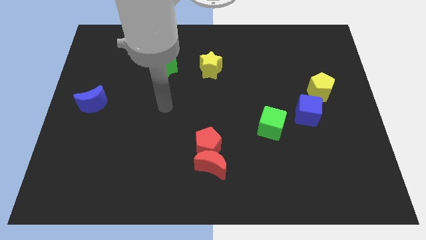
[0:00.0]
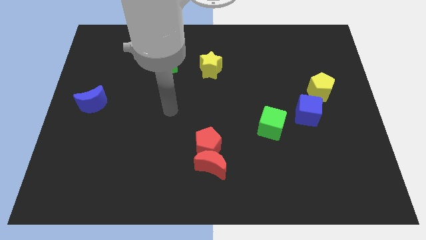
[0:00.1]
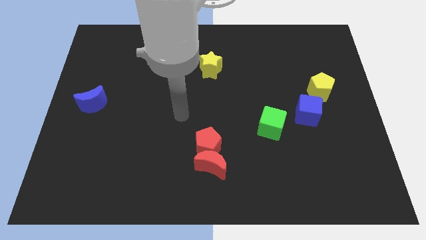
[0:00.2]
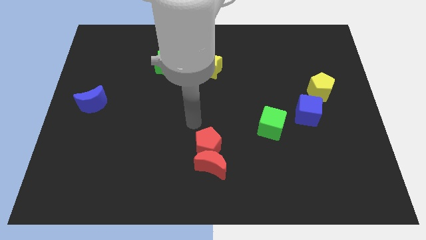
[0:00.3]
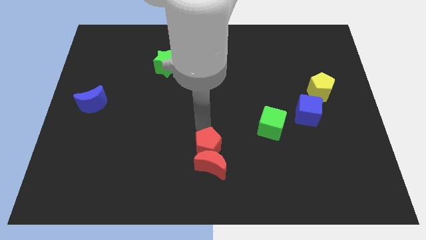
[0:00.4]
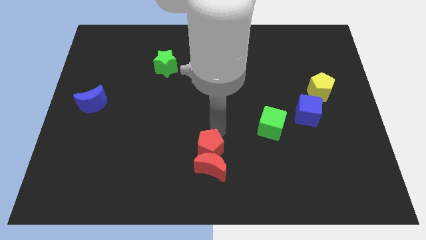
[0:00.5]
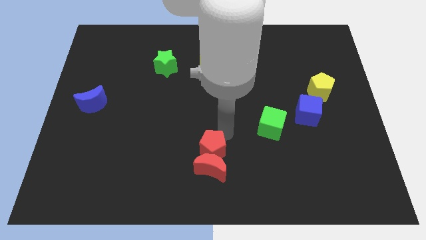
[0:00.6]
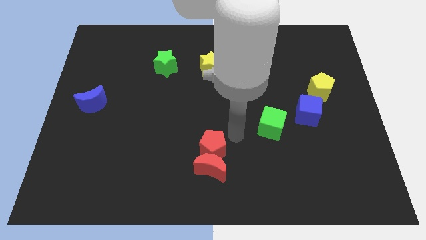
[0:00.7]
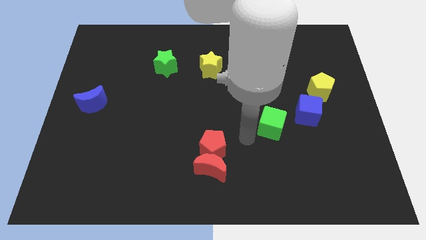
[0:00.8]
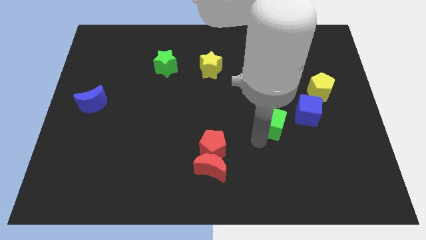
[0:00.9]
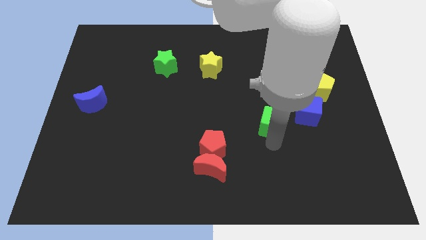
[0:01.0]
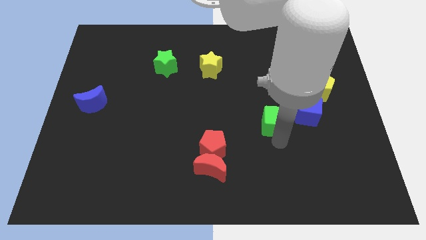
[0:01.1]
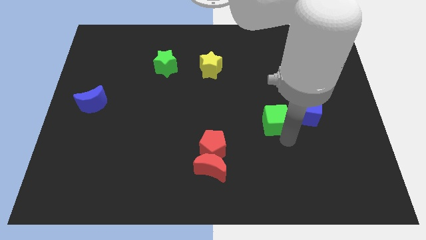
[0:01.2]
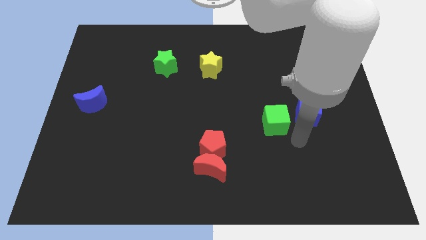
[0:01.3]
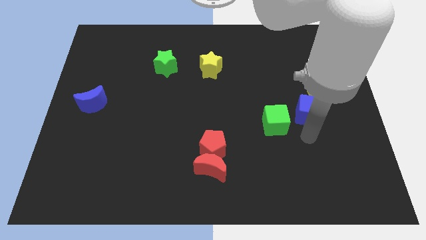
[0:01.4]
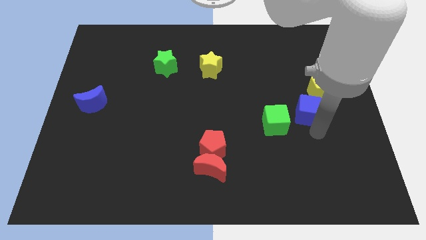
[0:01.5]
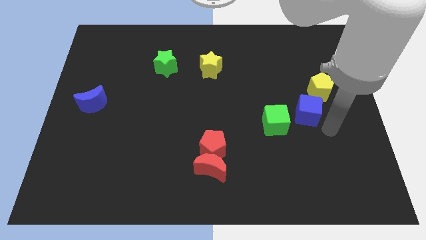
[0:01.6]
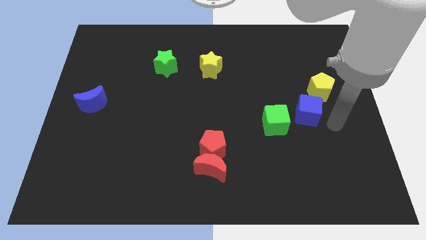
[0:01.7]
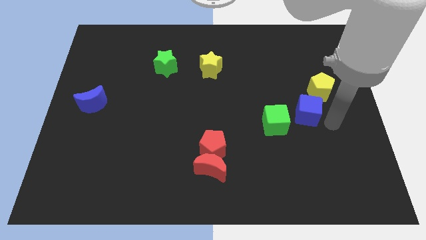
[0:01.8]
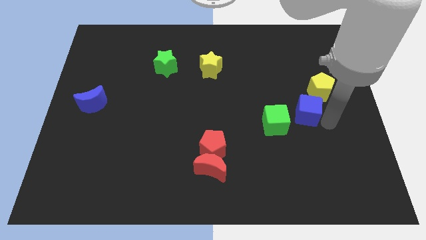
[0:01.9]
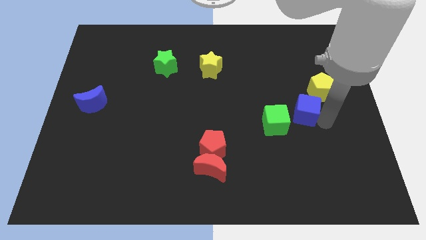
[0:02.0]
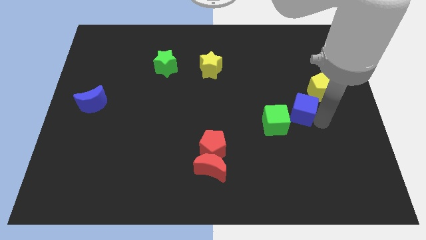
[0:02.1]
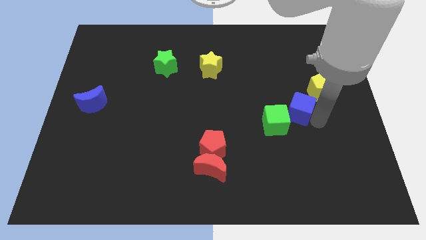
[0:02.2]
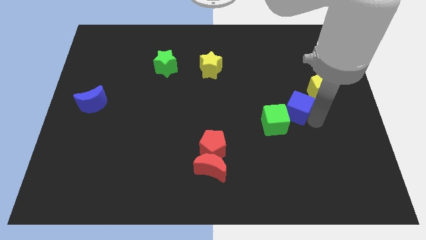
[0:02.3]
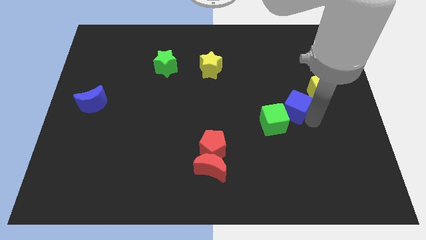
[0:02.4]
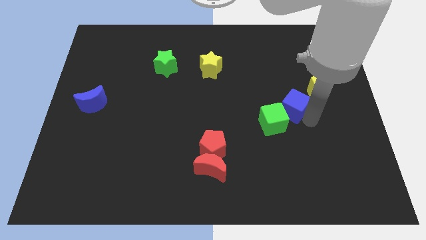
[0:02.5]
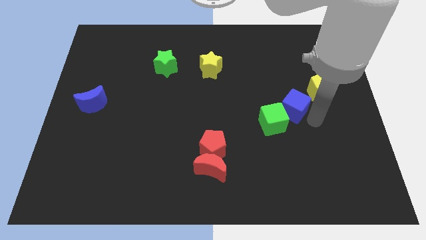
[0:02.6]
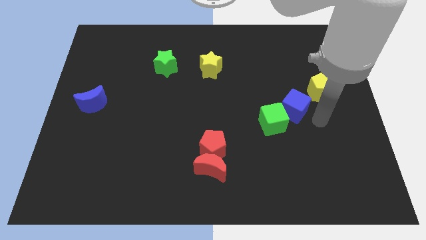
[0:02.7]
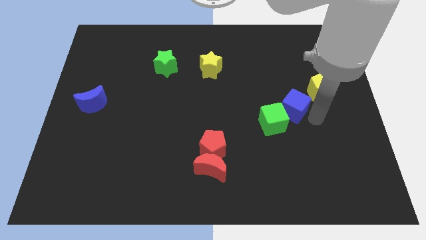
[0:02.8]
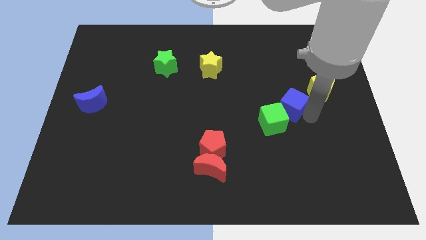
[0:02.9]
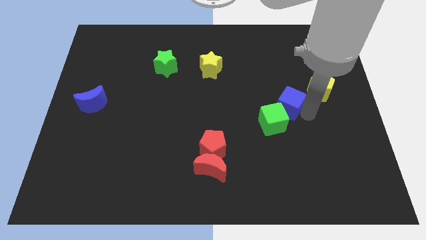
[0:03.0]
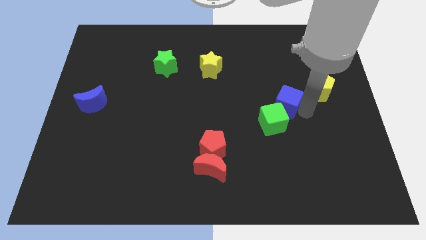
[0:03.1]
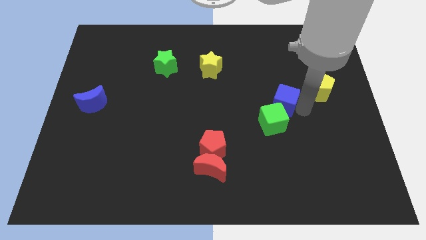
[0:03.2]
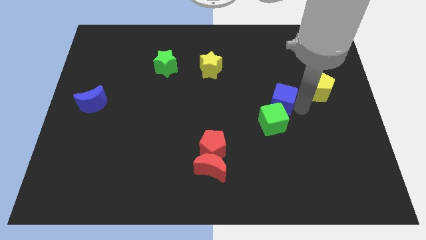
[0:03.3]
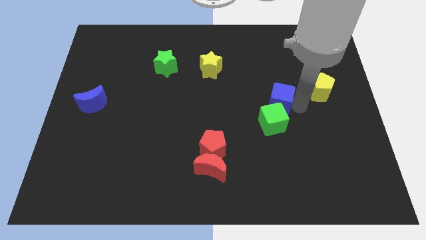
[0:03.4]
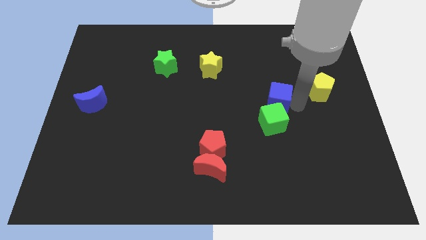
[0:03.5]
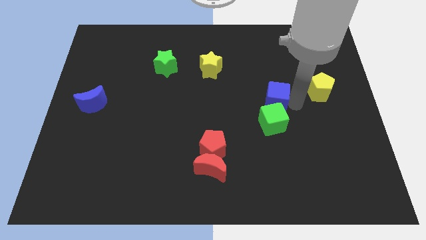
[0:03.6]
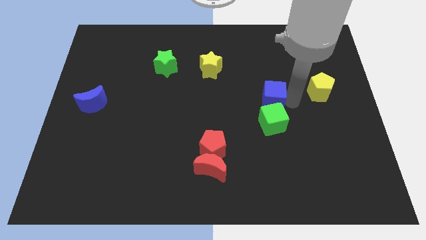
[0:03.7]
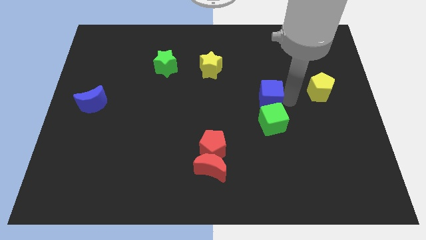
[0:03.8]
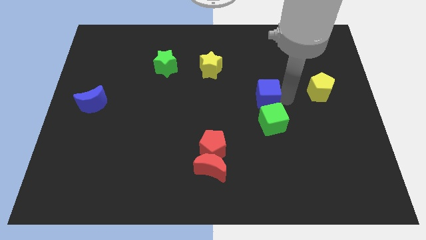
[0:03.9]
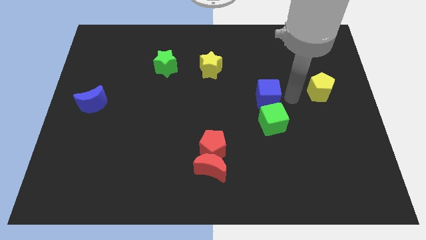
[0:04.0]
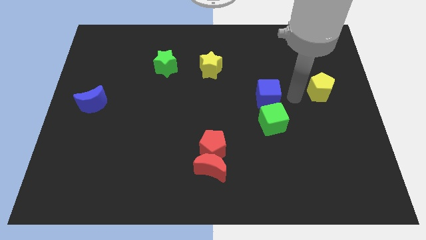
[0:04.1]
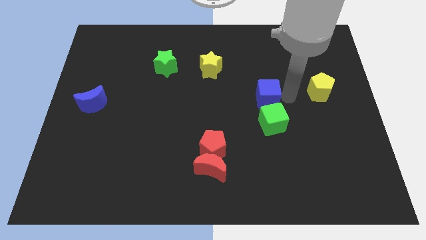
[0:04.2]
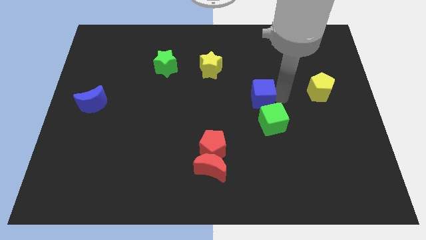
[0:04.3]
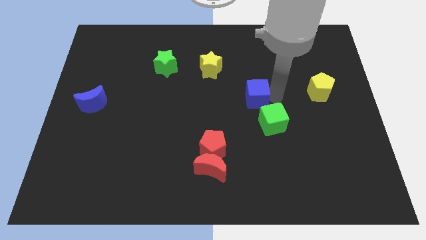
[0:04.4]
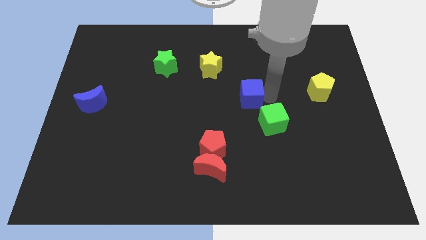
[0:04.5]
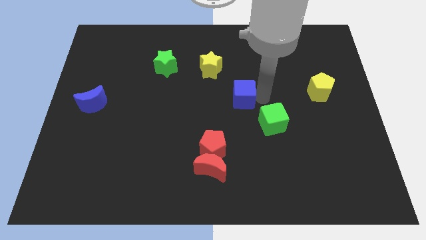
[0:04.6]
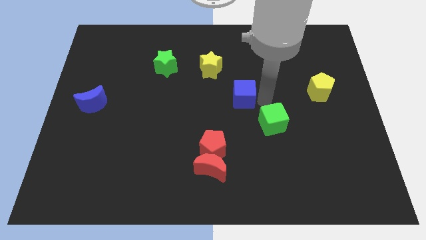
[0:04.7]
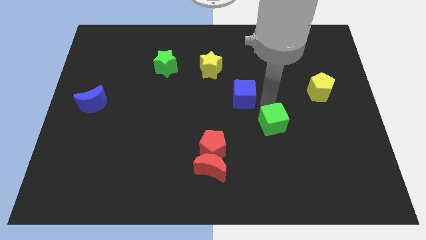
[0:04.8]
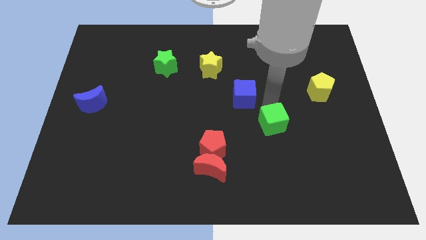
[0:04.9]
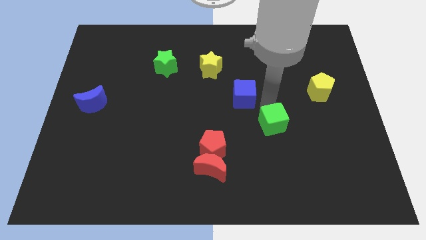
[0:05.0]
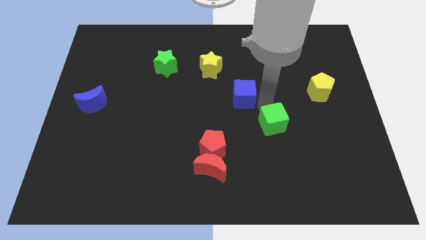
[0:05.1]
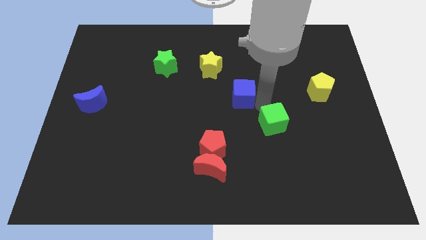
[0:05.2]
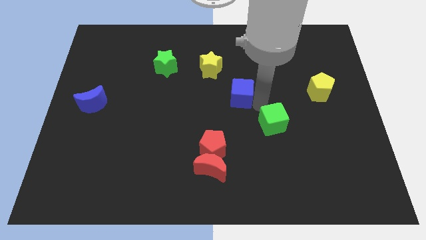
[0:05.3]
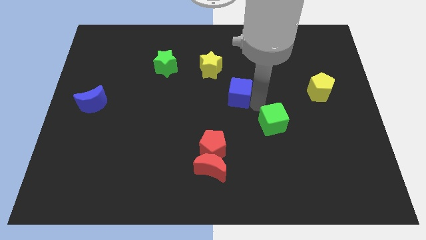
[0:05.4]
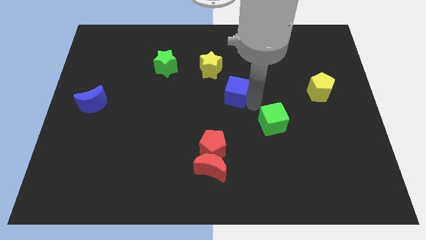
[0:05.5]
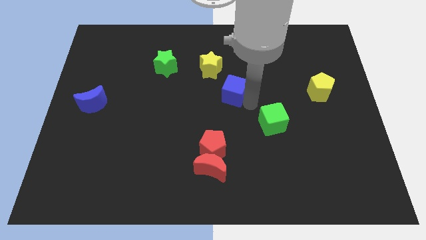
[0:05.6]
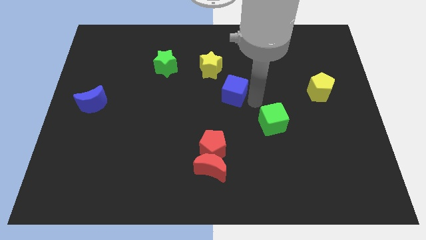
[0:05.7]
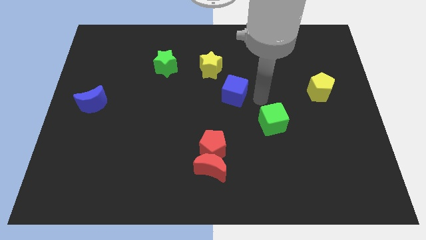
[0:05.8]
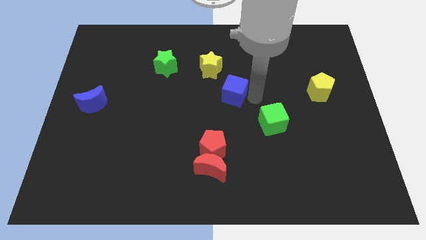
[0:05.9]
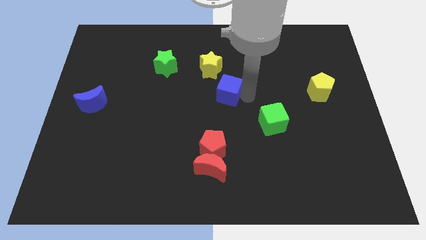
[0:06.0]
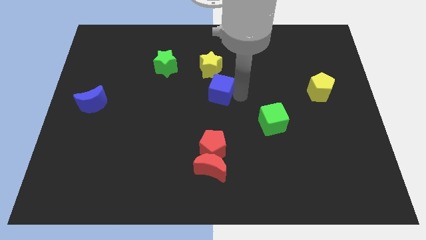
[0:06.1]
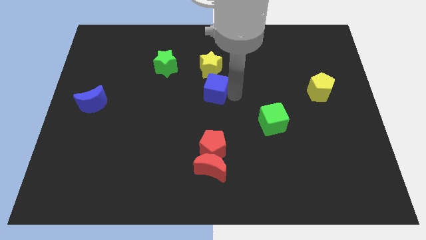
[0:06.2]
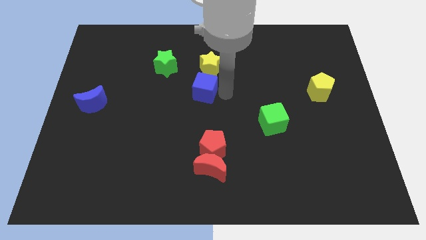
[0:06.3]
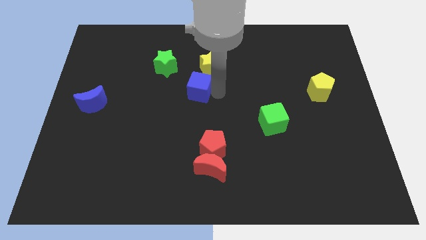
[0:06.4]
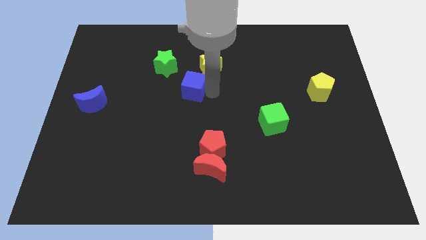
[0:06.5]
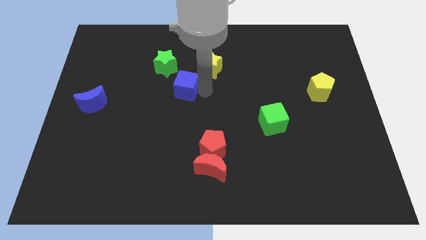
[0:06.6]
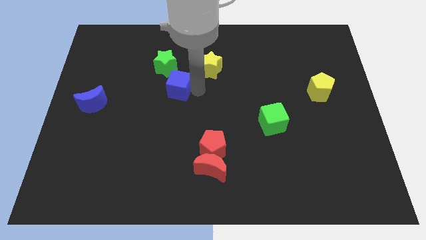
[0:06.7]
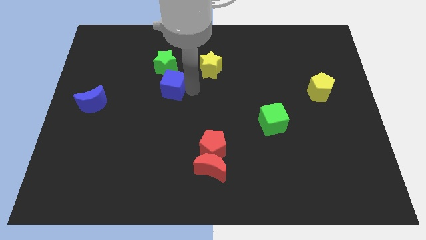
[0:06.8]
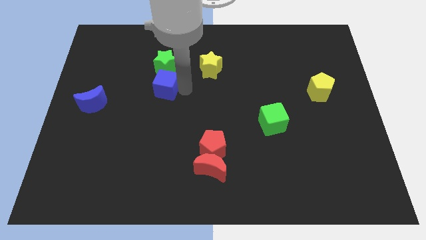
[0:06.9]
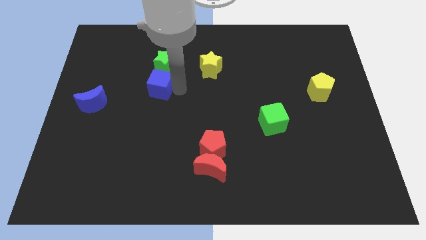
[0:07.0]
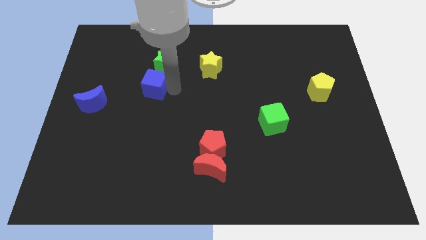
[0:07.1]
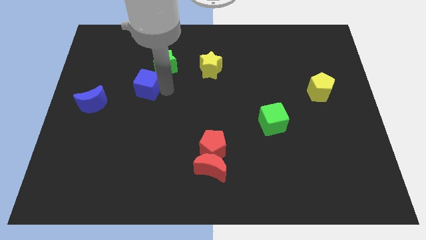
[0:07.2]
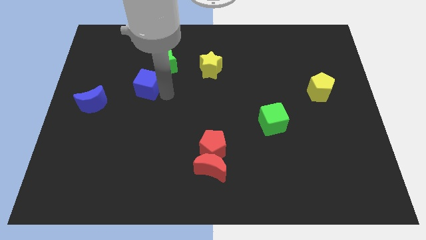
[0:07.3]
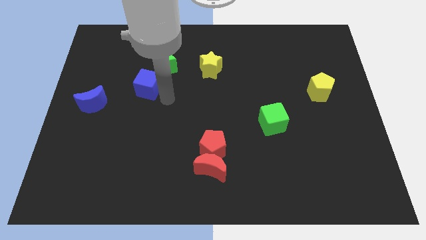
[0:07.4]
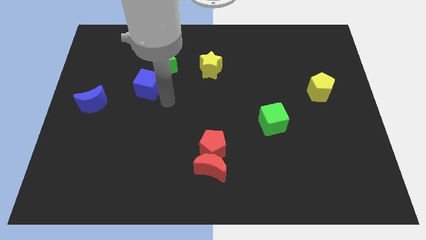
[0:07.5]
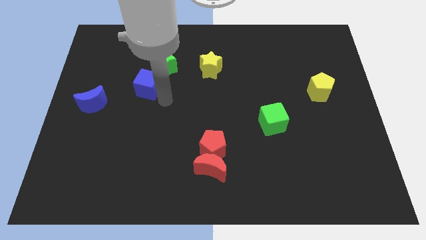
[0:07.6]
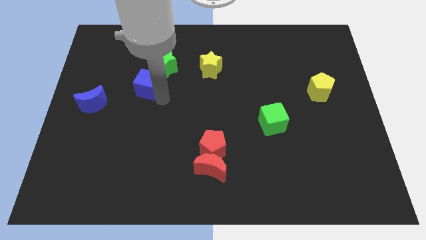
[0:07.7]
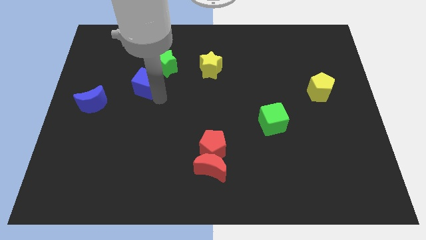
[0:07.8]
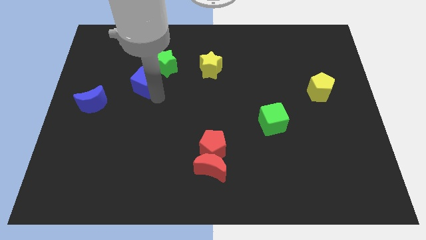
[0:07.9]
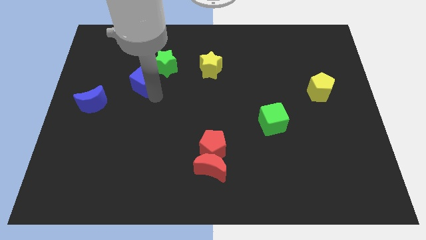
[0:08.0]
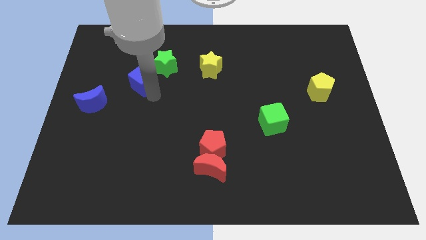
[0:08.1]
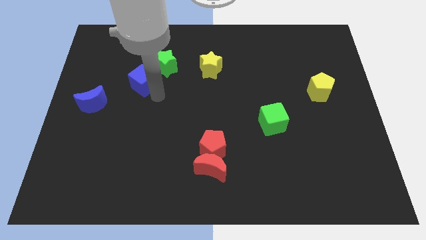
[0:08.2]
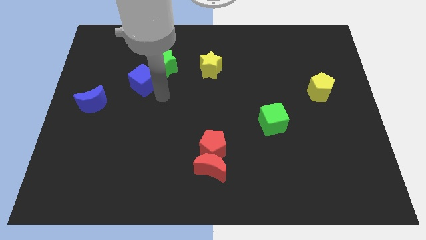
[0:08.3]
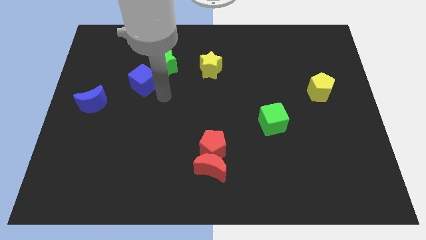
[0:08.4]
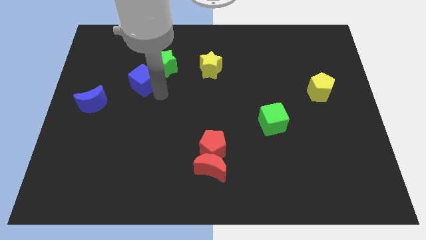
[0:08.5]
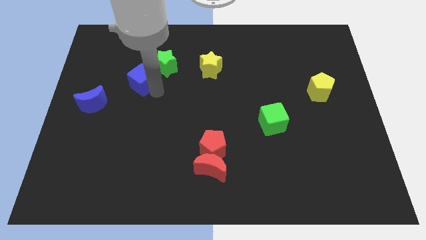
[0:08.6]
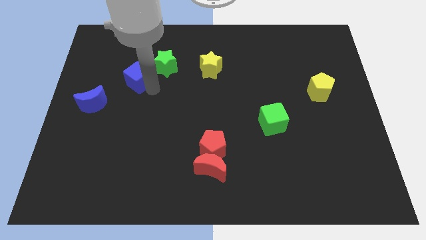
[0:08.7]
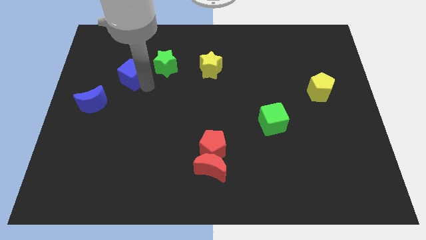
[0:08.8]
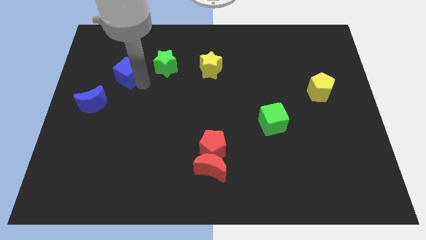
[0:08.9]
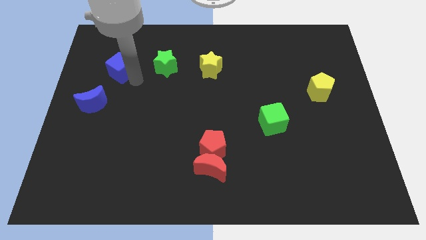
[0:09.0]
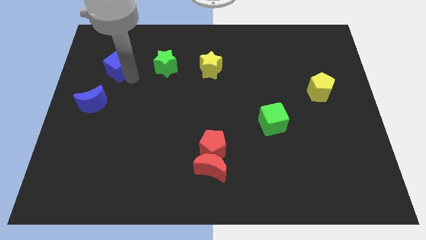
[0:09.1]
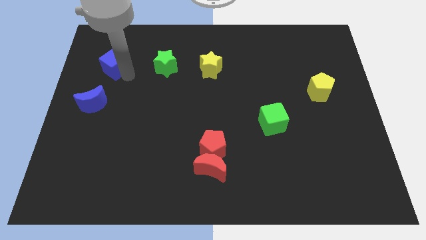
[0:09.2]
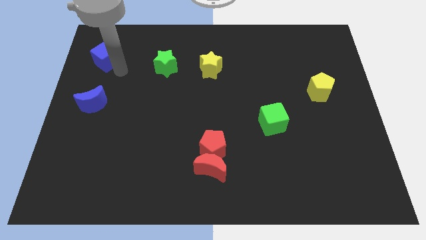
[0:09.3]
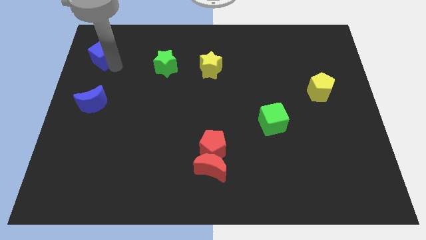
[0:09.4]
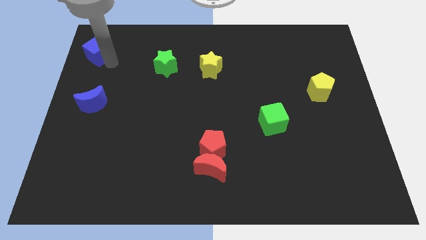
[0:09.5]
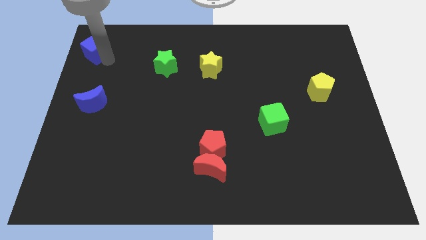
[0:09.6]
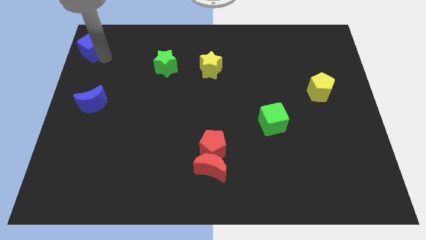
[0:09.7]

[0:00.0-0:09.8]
move the blue cube to the upper left corner
